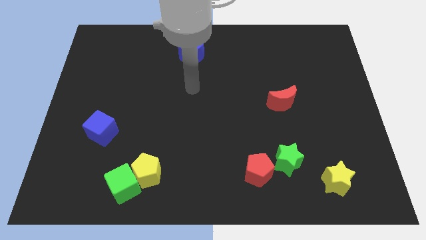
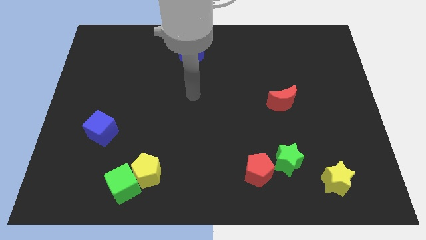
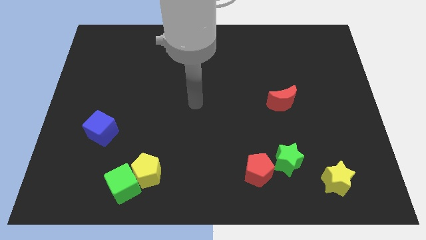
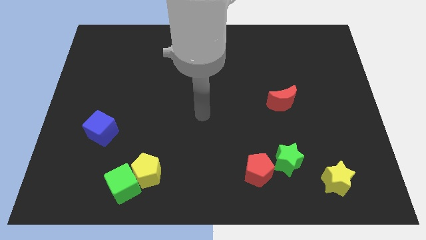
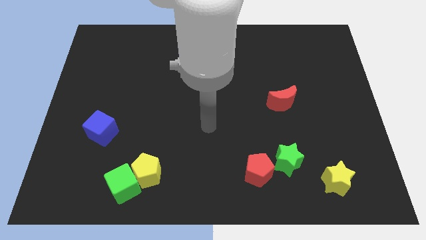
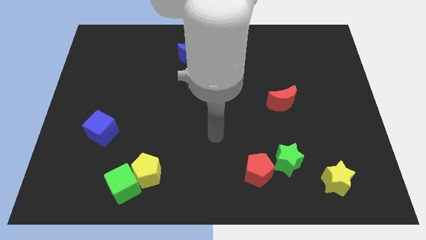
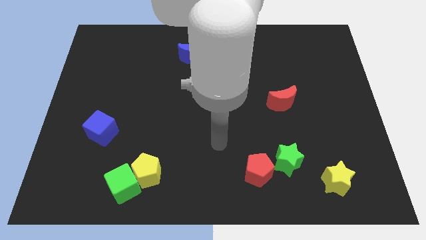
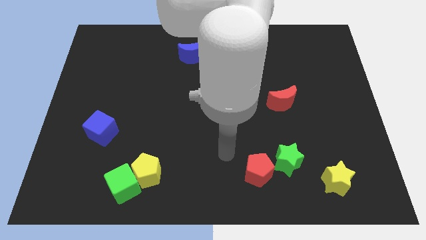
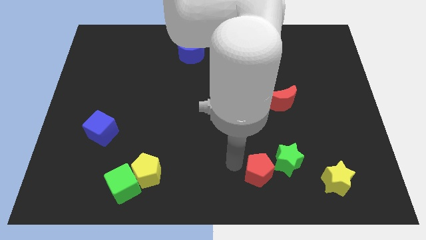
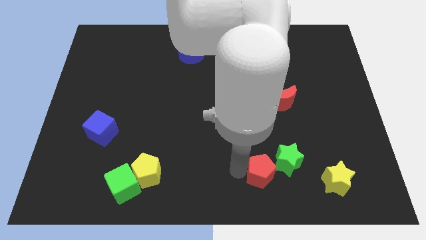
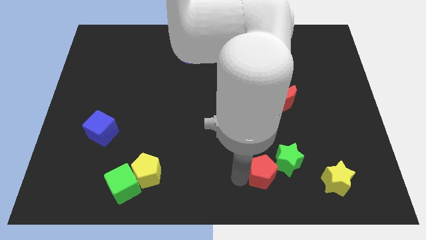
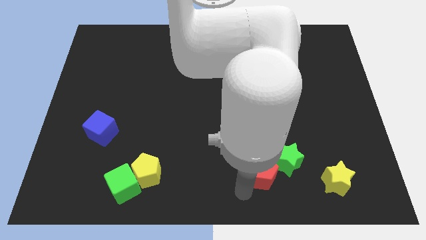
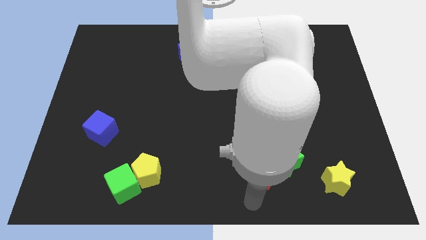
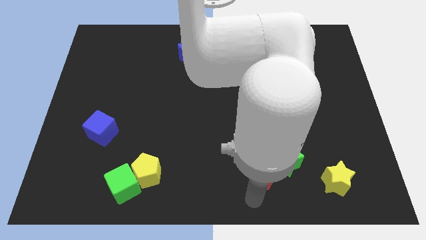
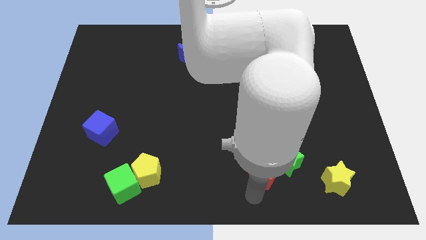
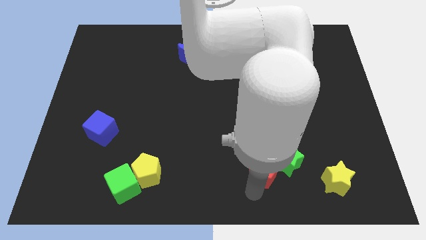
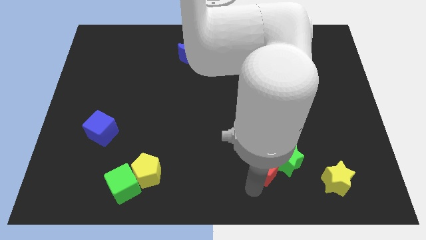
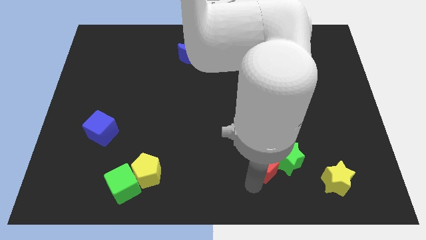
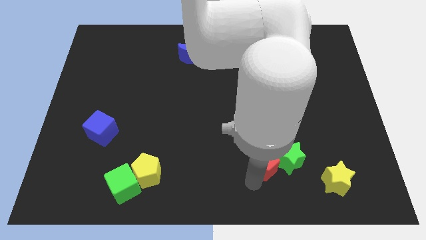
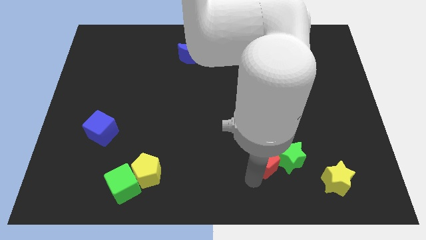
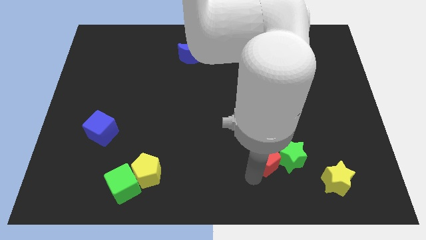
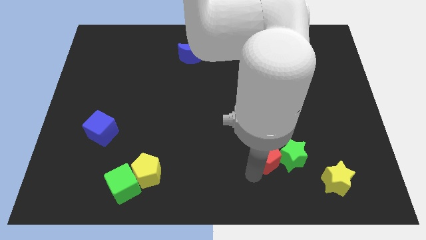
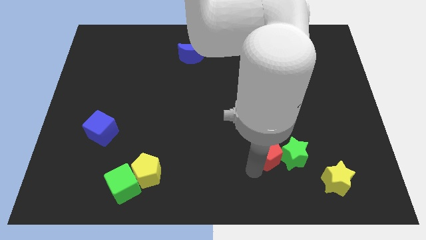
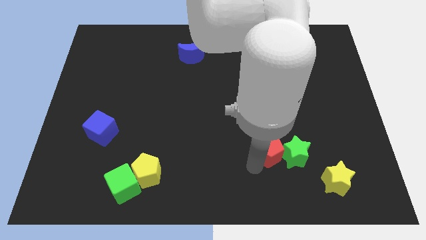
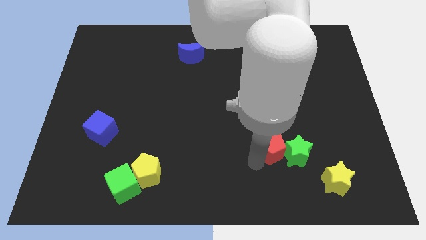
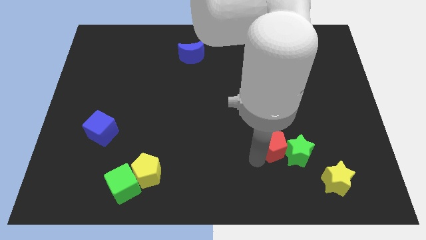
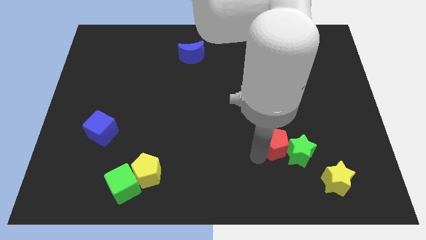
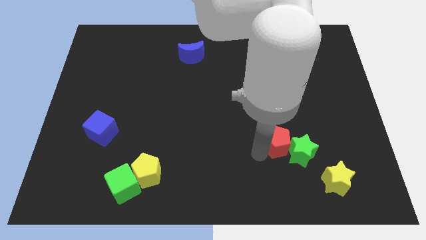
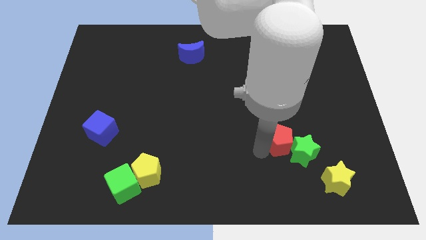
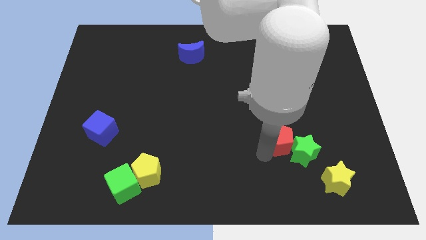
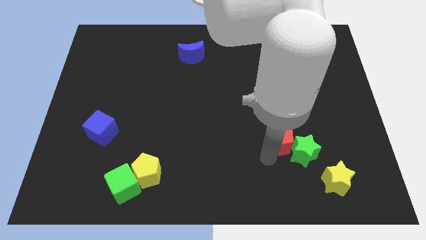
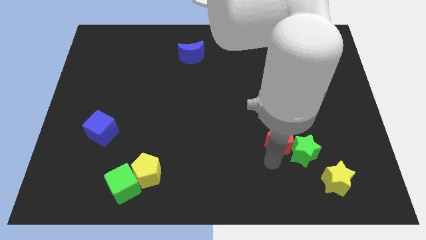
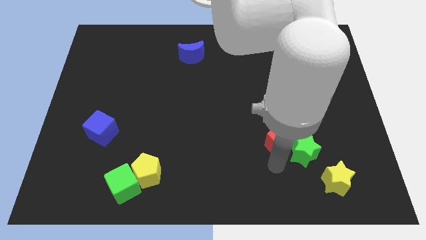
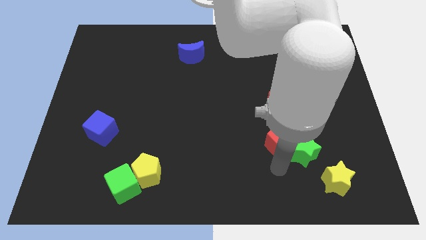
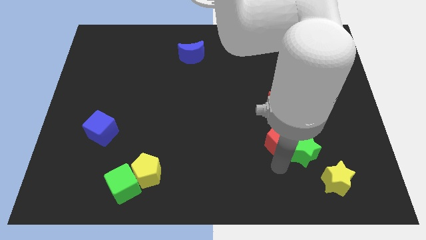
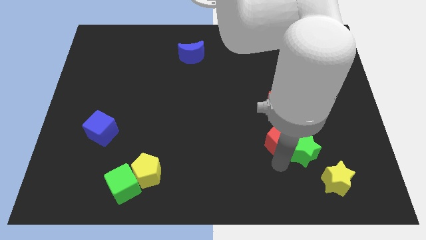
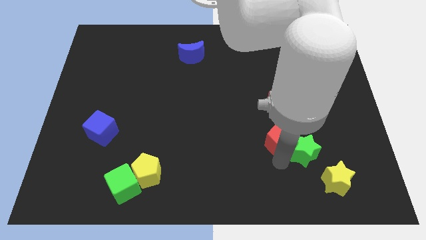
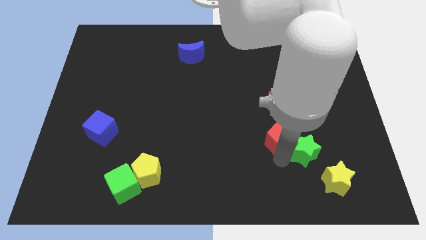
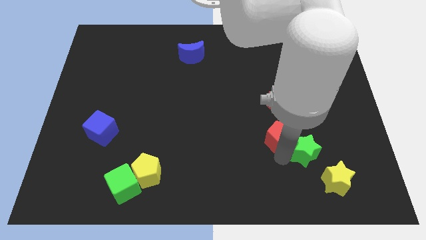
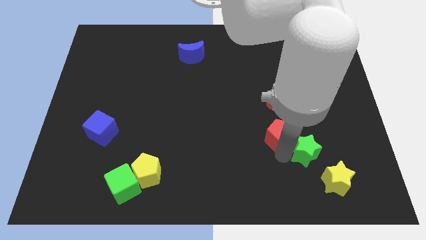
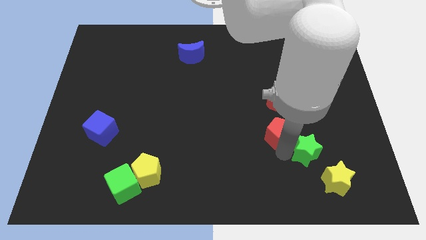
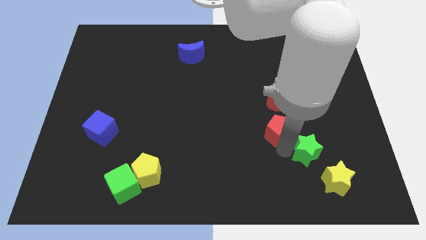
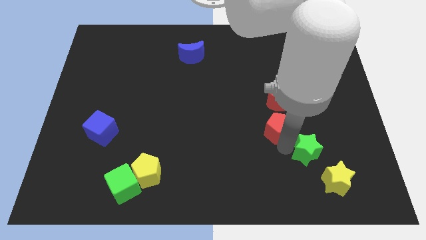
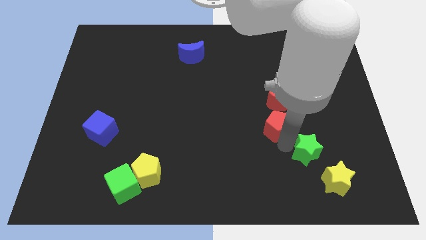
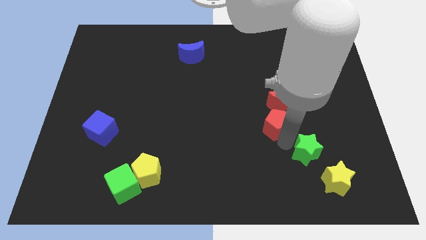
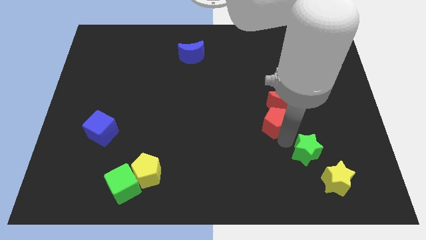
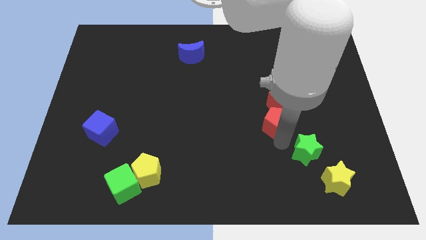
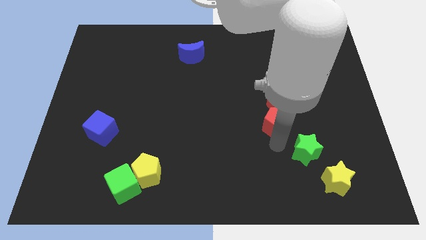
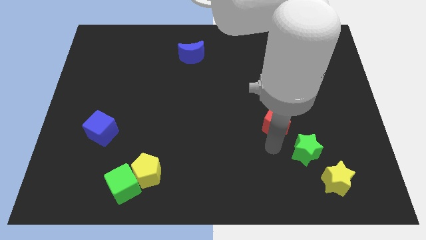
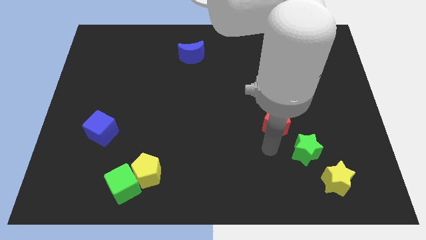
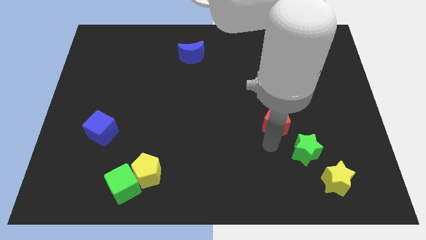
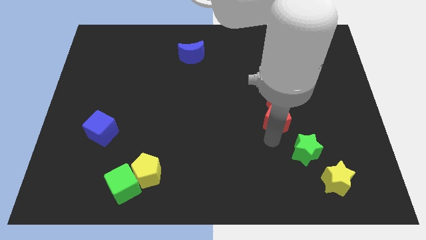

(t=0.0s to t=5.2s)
move the red pentagon close to the red moon

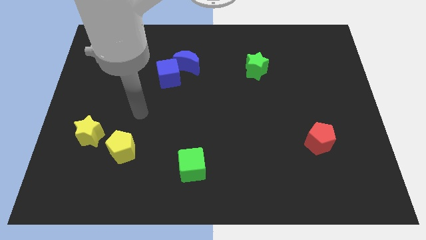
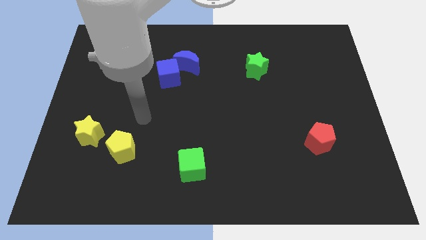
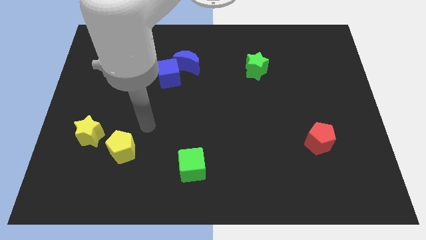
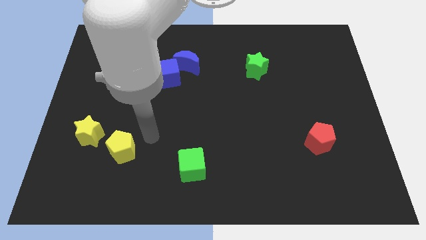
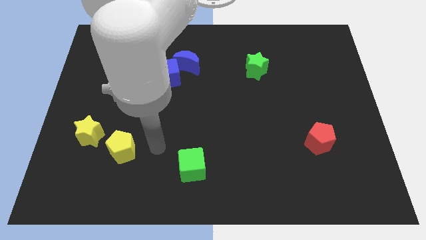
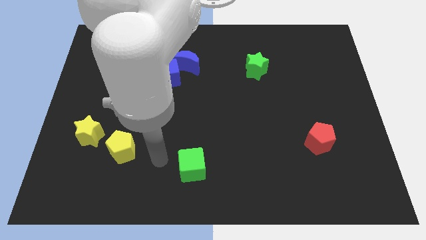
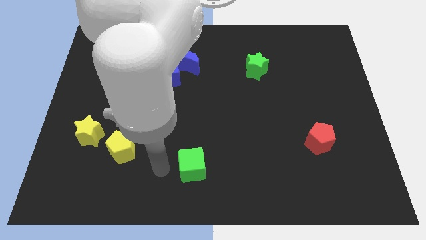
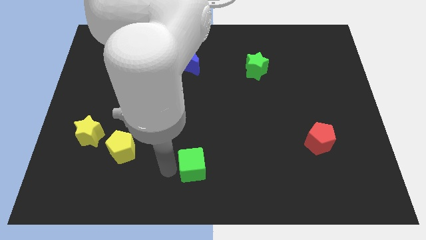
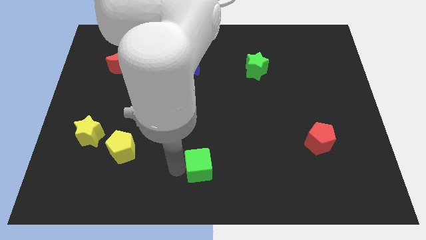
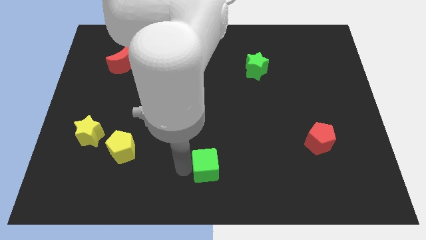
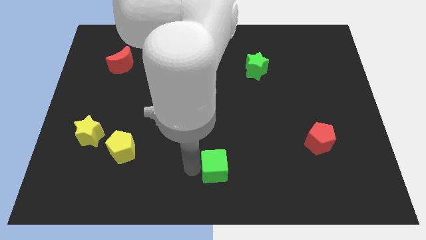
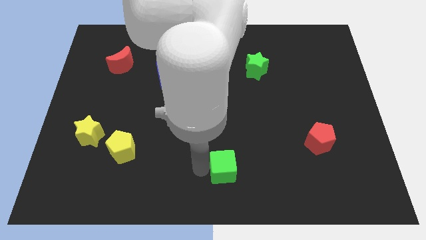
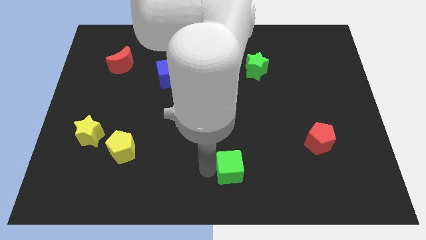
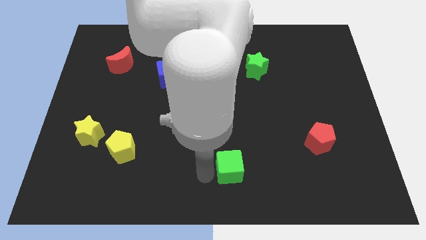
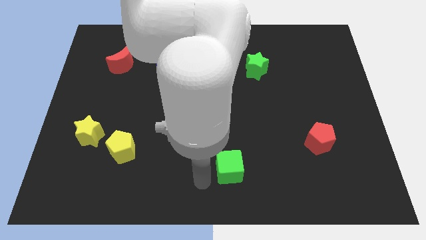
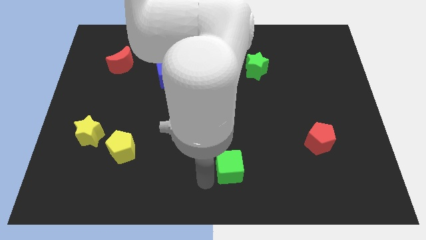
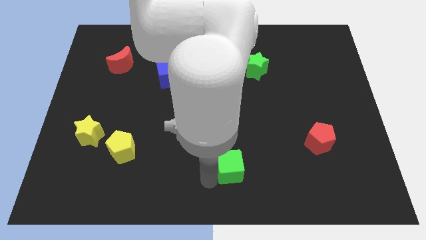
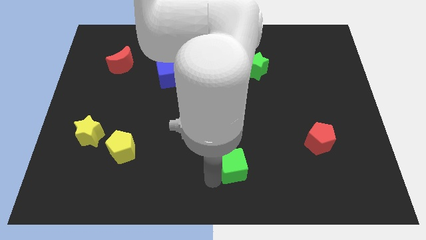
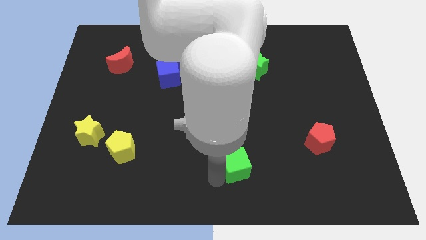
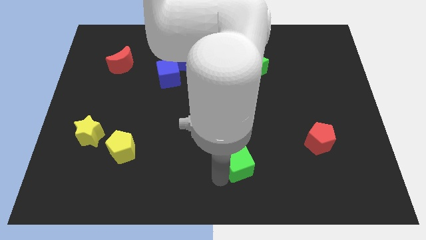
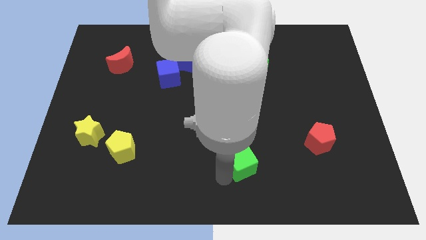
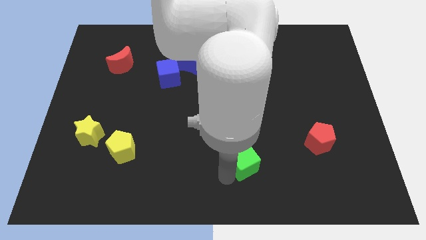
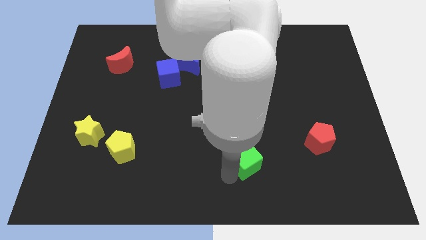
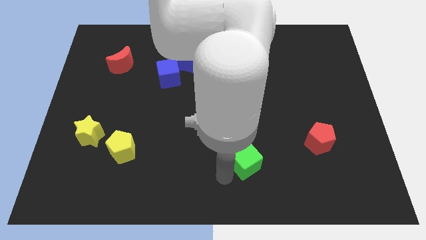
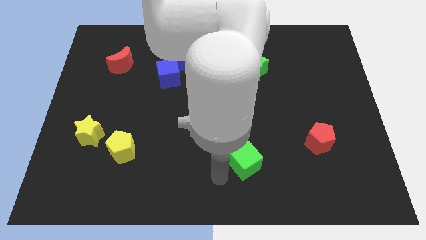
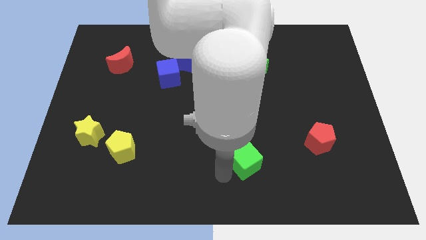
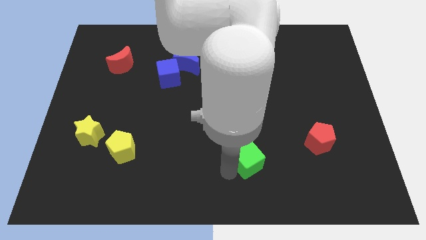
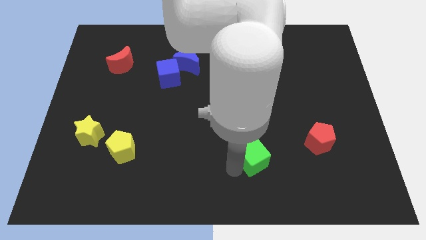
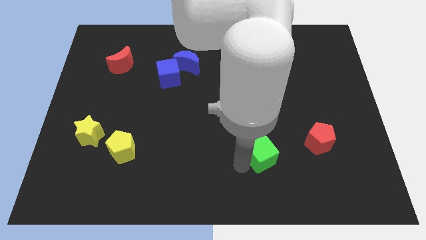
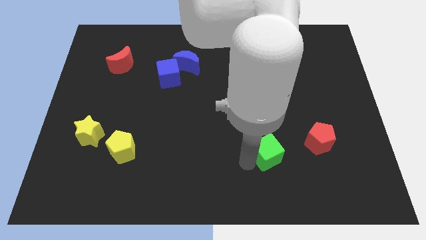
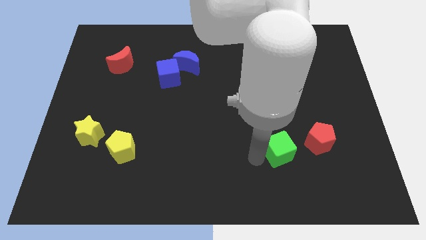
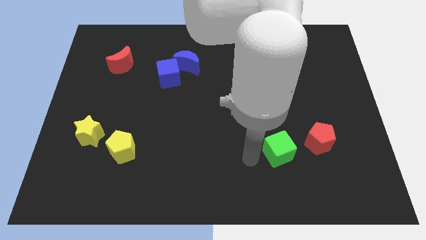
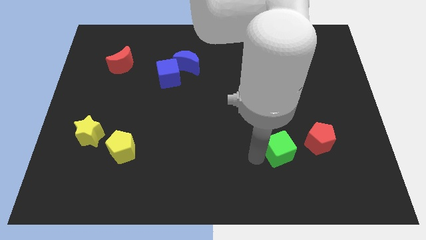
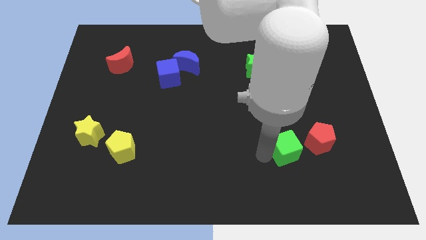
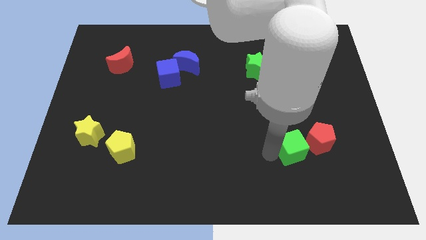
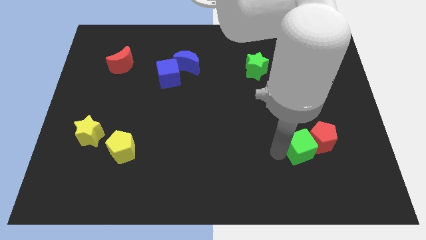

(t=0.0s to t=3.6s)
put the green cube towards the red pentagon
